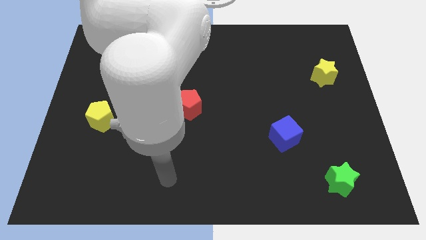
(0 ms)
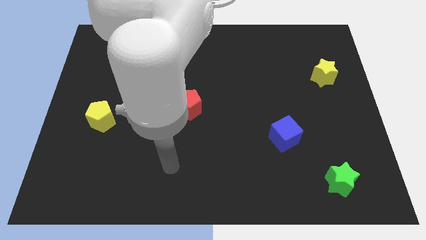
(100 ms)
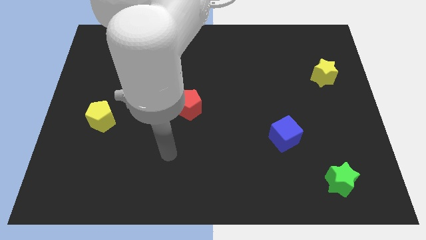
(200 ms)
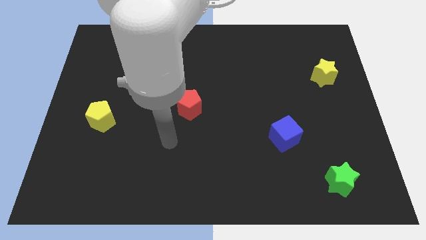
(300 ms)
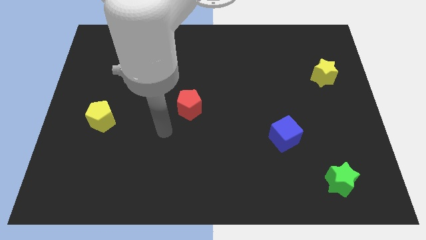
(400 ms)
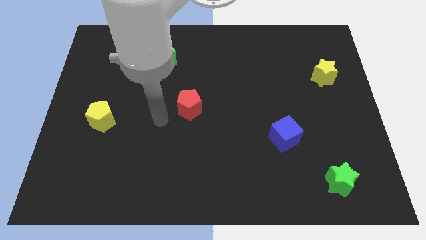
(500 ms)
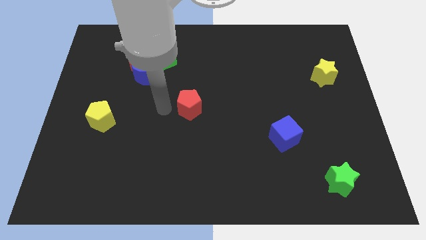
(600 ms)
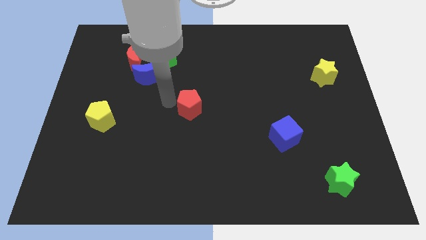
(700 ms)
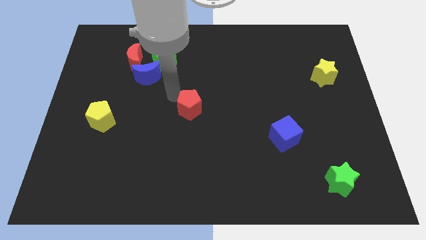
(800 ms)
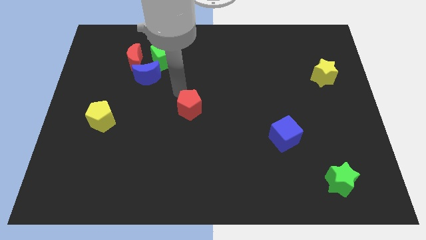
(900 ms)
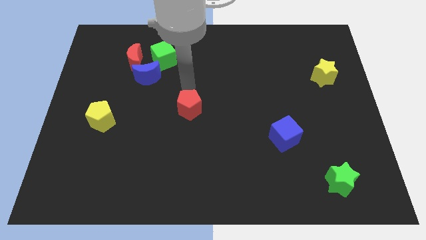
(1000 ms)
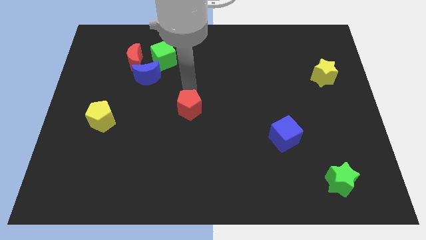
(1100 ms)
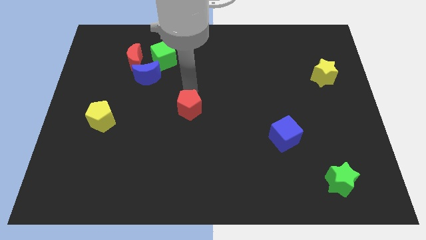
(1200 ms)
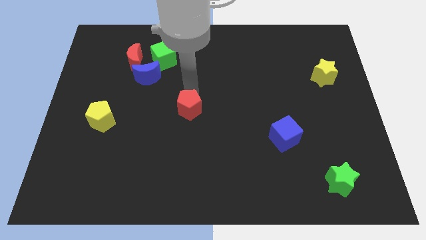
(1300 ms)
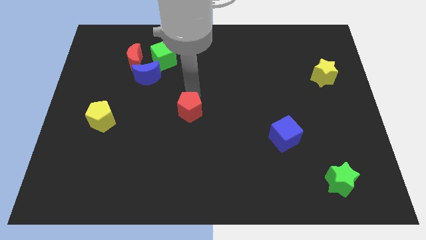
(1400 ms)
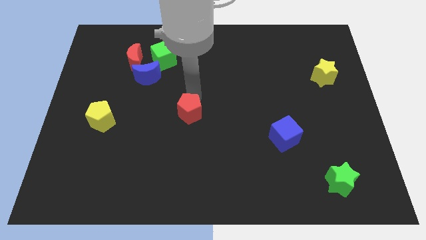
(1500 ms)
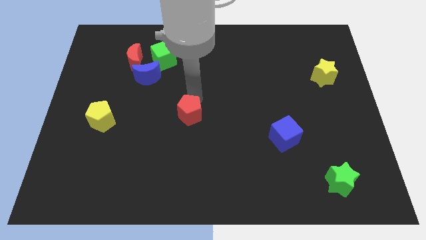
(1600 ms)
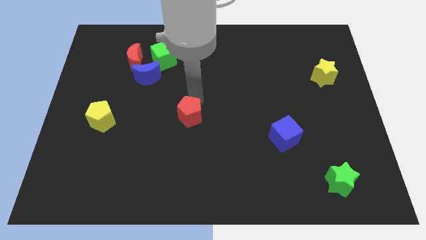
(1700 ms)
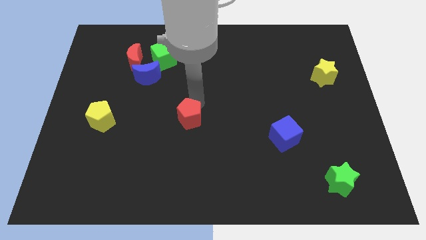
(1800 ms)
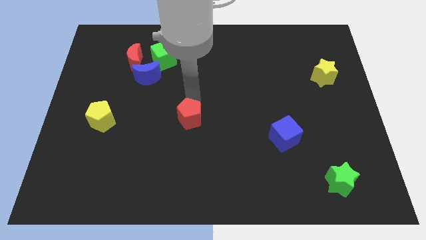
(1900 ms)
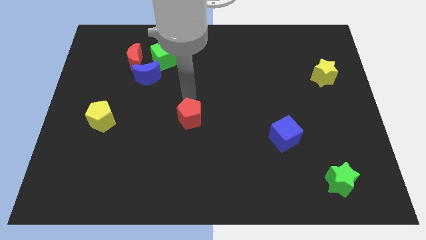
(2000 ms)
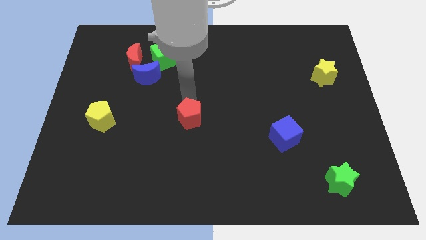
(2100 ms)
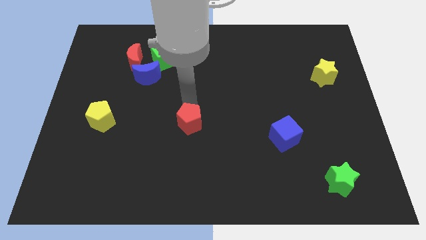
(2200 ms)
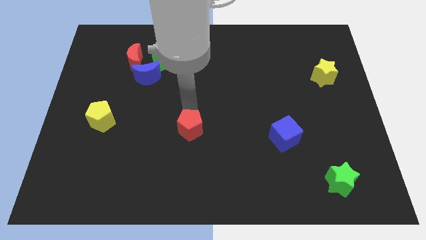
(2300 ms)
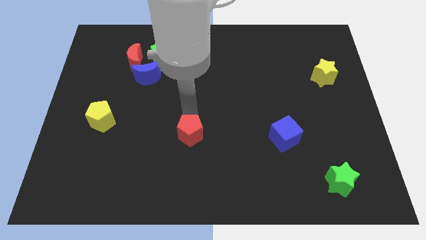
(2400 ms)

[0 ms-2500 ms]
slide the red pentagon downwards a little bit

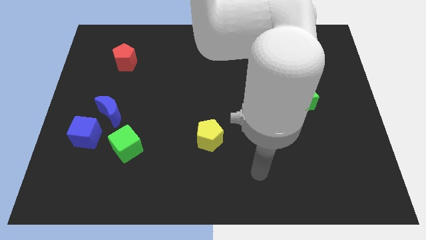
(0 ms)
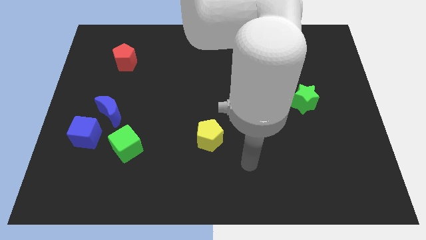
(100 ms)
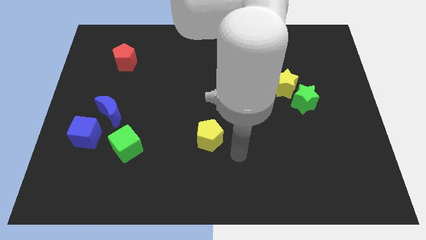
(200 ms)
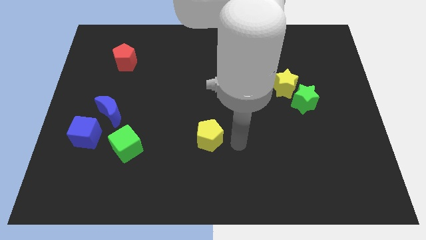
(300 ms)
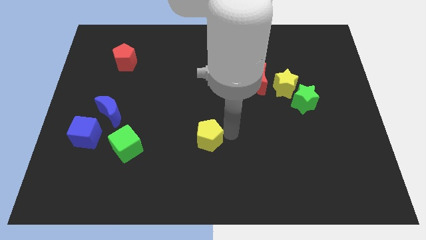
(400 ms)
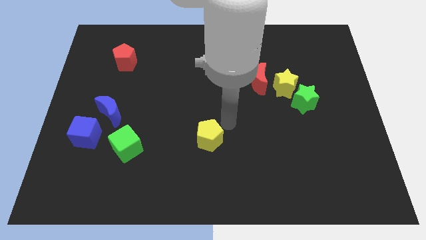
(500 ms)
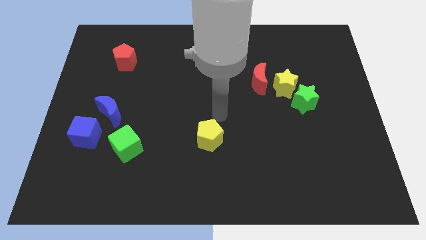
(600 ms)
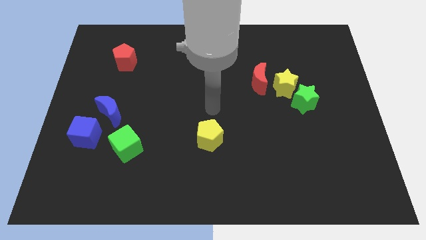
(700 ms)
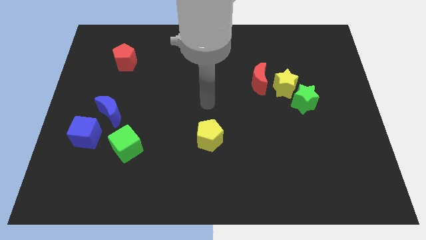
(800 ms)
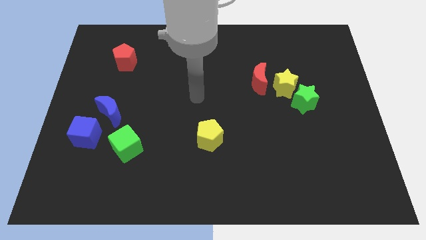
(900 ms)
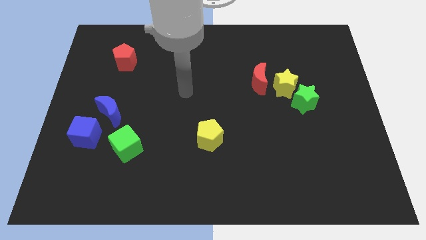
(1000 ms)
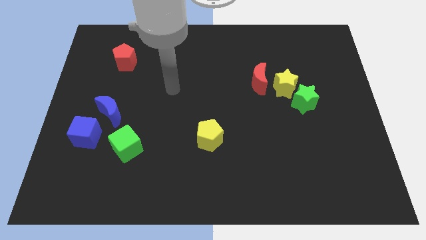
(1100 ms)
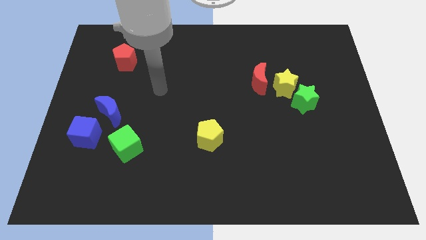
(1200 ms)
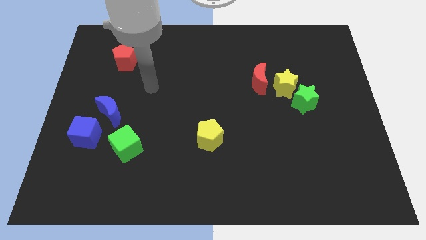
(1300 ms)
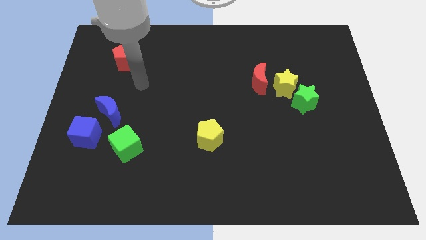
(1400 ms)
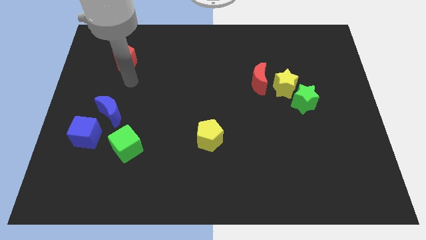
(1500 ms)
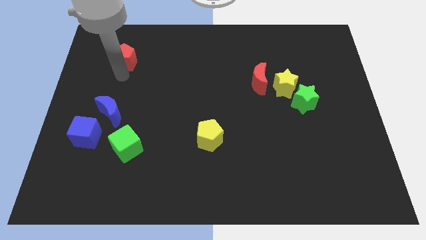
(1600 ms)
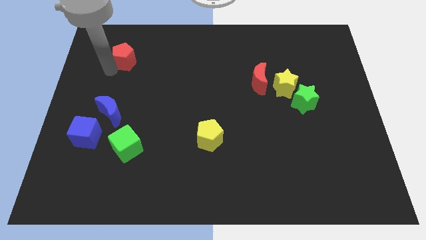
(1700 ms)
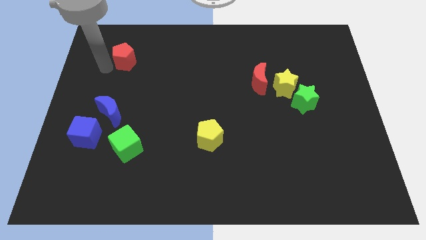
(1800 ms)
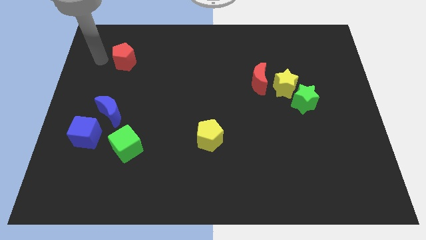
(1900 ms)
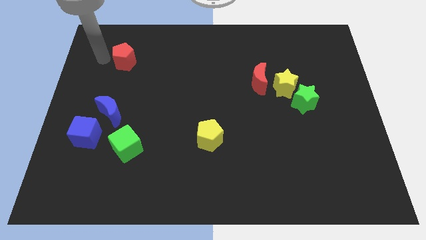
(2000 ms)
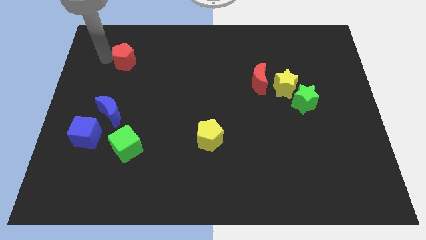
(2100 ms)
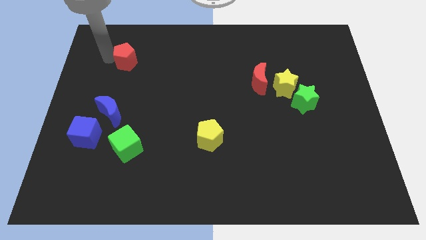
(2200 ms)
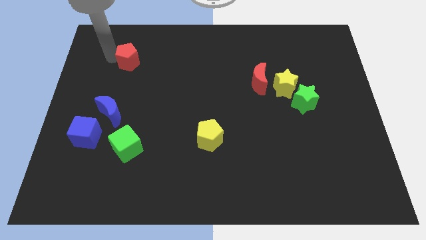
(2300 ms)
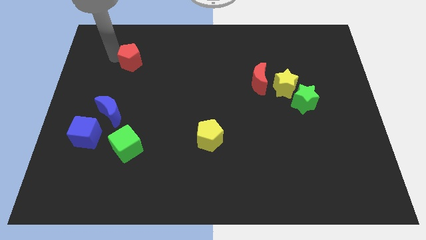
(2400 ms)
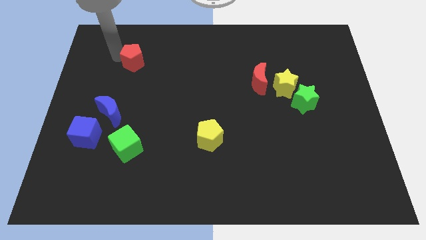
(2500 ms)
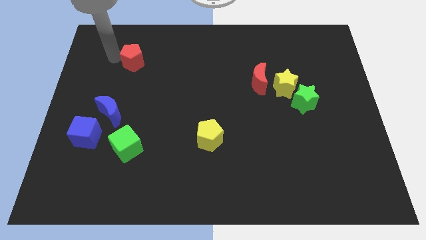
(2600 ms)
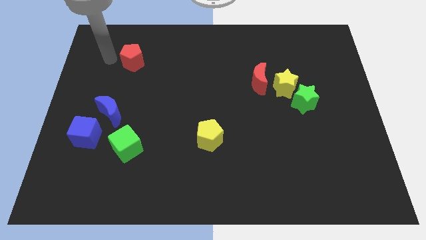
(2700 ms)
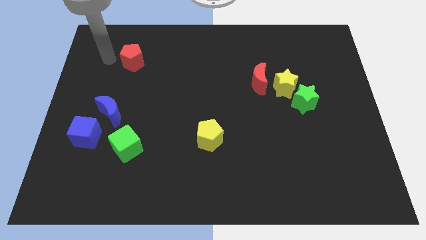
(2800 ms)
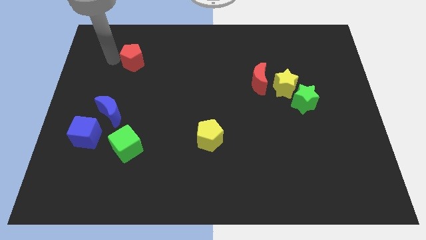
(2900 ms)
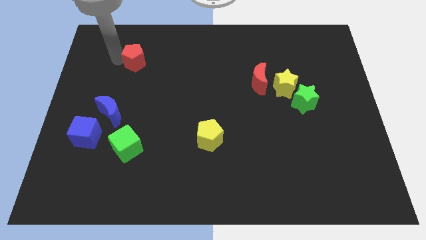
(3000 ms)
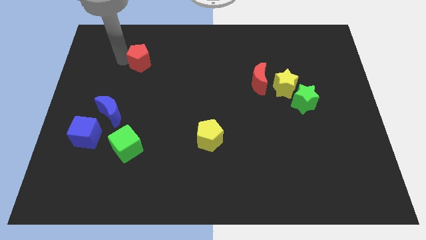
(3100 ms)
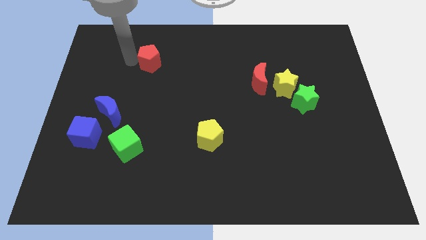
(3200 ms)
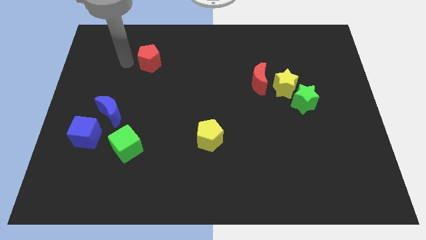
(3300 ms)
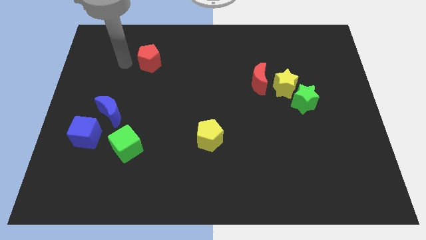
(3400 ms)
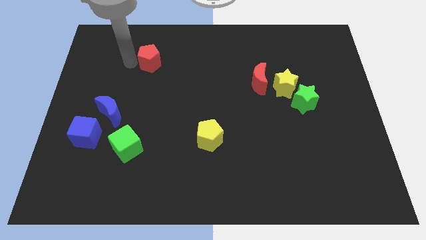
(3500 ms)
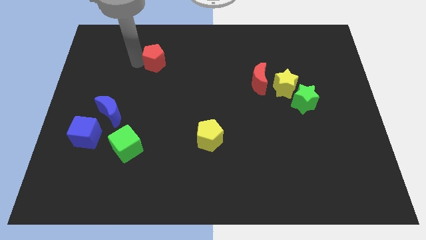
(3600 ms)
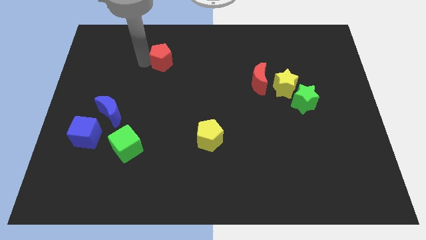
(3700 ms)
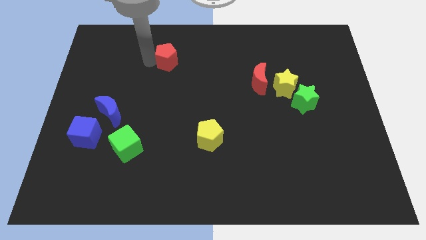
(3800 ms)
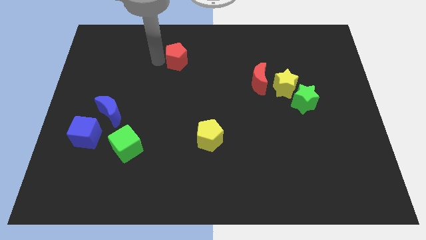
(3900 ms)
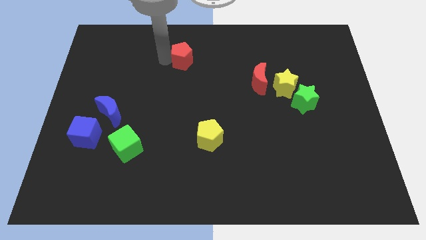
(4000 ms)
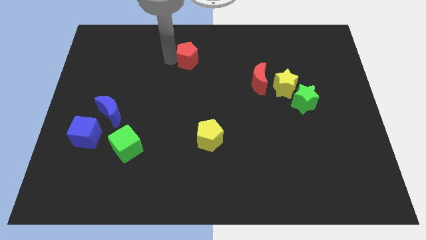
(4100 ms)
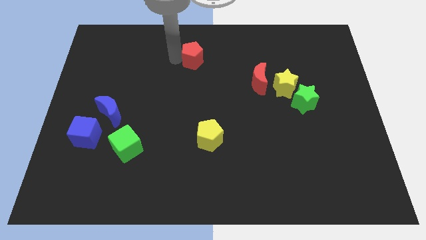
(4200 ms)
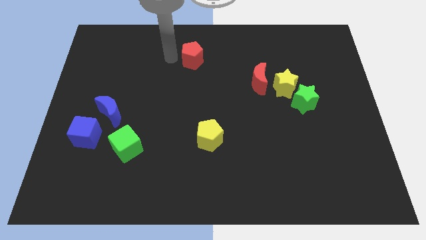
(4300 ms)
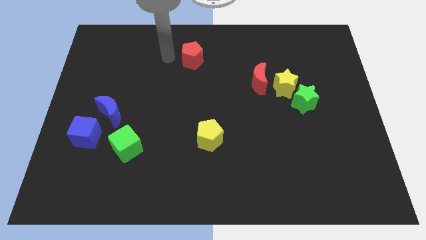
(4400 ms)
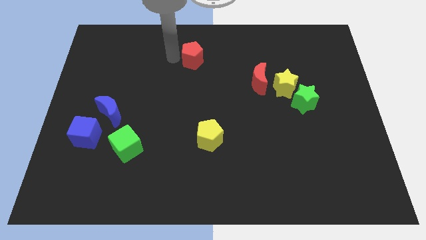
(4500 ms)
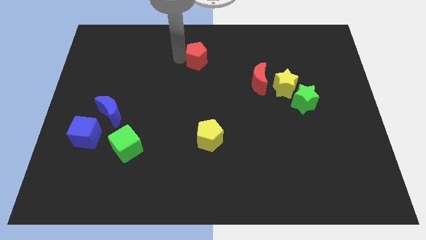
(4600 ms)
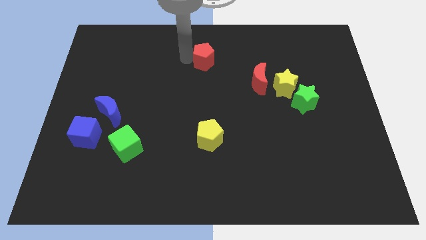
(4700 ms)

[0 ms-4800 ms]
push the red pentagon right

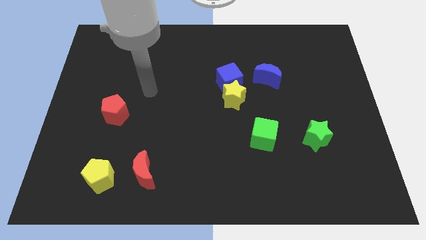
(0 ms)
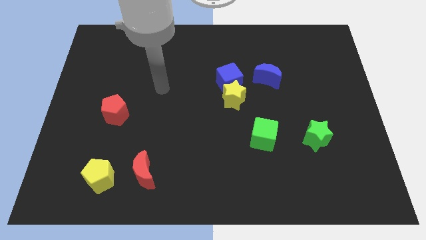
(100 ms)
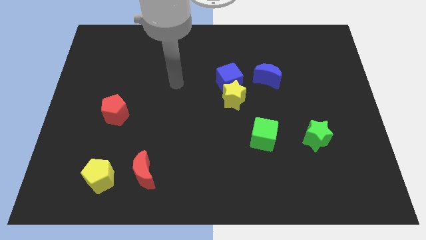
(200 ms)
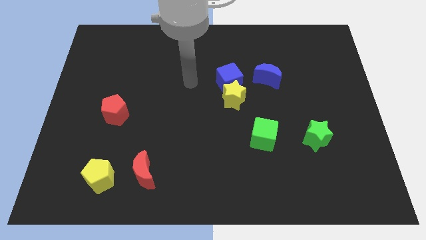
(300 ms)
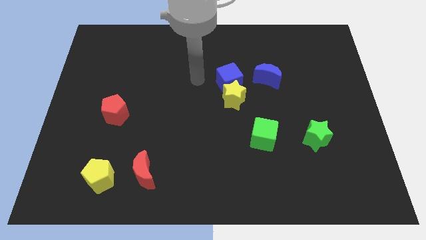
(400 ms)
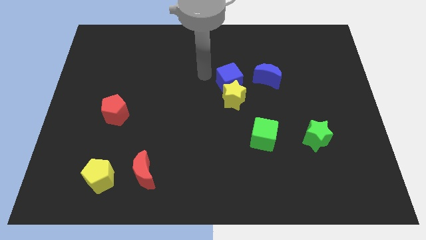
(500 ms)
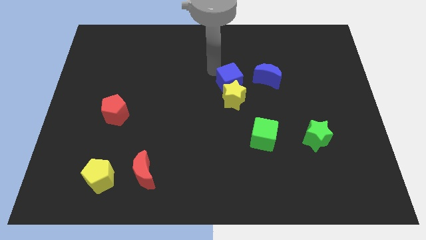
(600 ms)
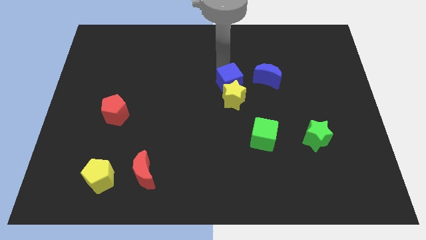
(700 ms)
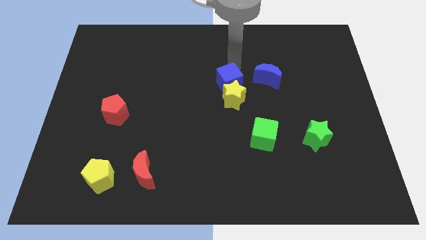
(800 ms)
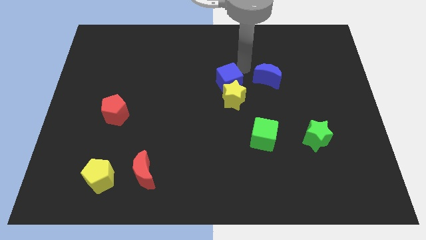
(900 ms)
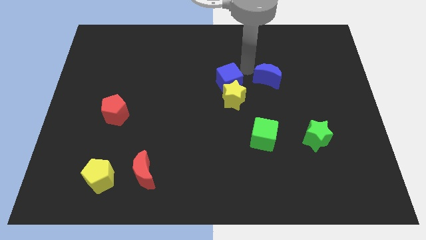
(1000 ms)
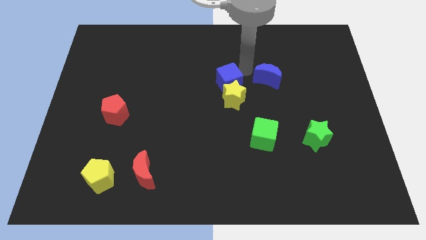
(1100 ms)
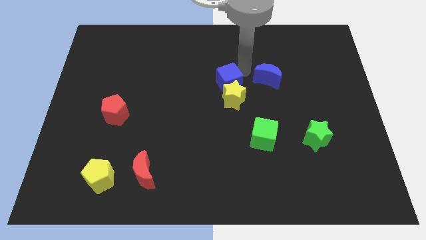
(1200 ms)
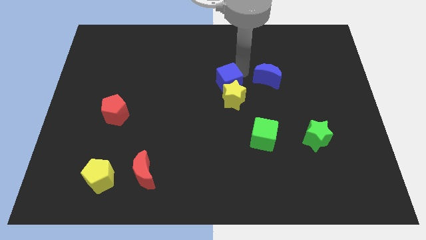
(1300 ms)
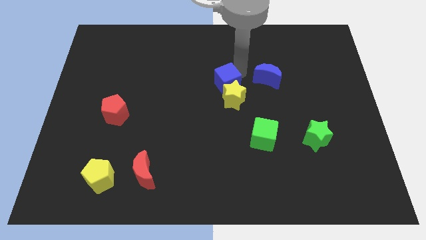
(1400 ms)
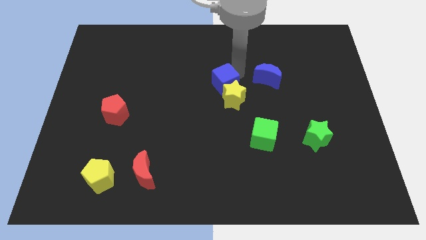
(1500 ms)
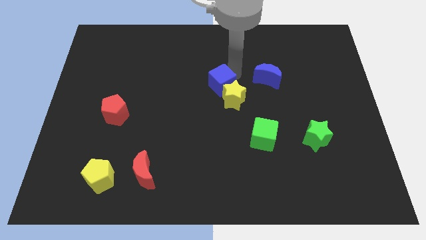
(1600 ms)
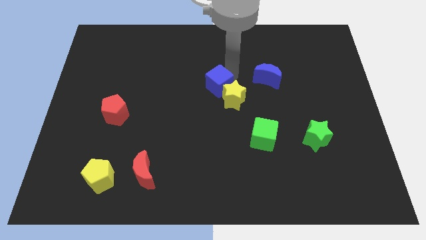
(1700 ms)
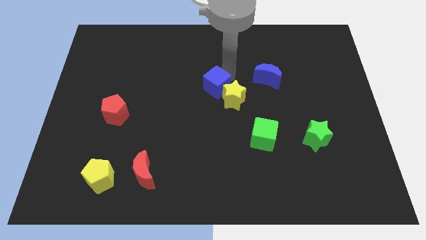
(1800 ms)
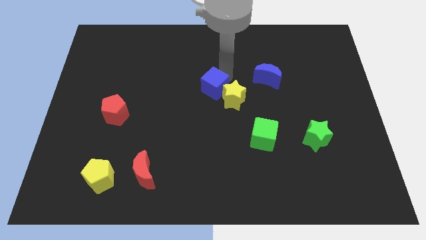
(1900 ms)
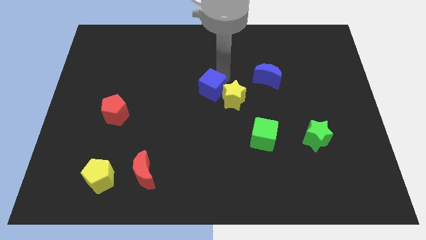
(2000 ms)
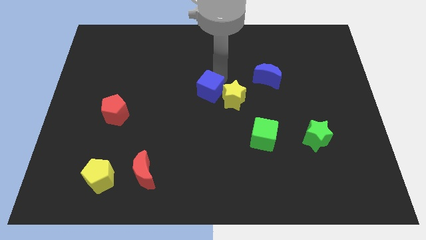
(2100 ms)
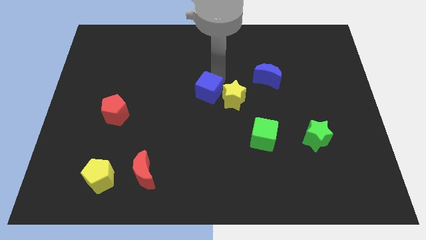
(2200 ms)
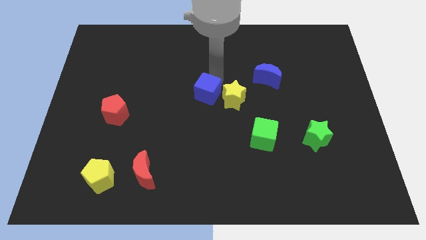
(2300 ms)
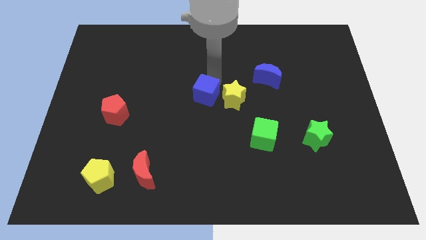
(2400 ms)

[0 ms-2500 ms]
slightly move the blue cube diagonally down and to the left
